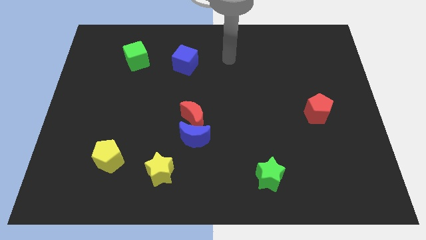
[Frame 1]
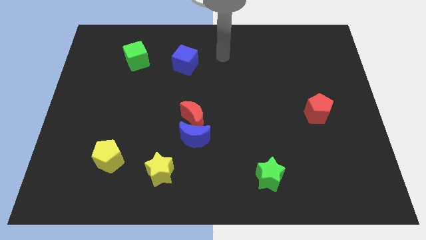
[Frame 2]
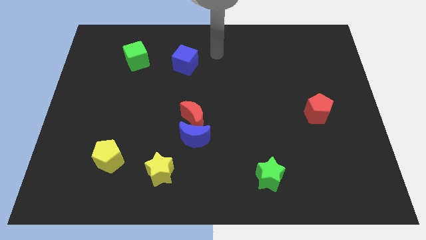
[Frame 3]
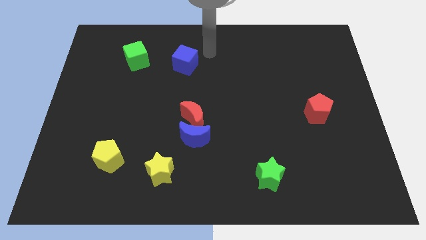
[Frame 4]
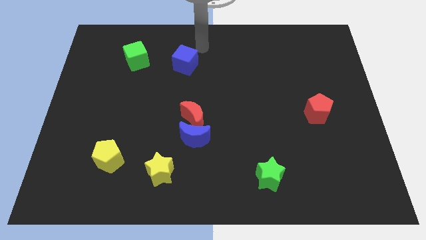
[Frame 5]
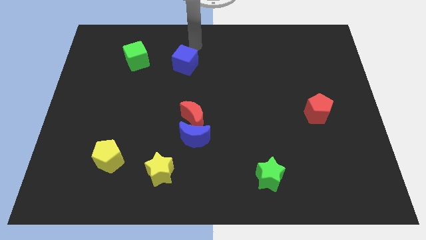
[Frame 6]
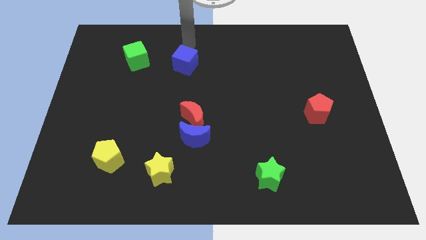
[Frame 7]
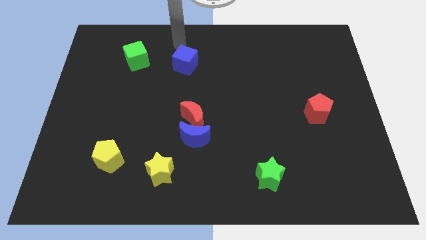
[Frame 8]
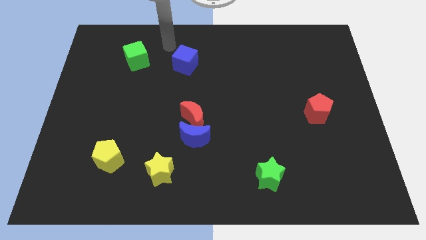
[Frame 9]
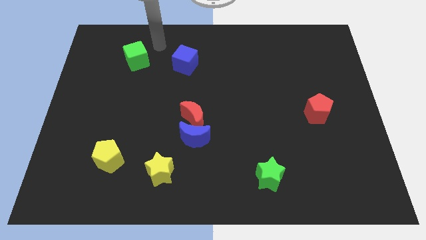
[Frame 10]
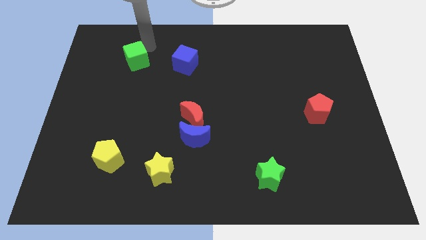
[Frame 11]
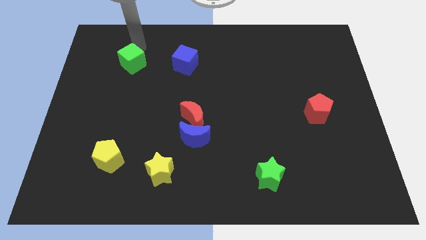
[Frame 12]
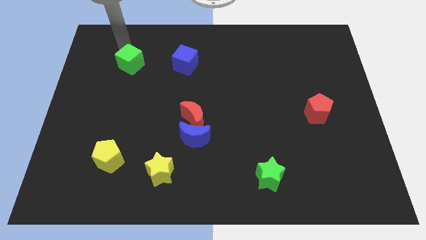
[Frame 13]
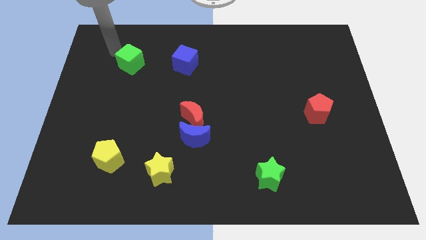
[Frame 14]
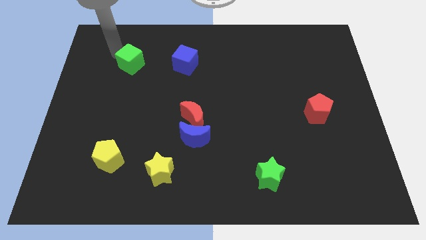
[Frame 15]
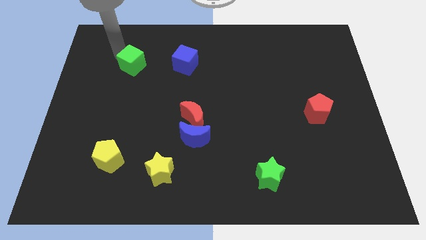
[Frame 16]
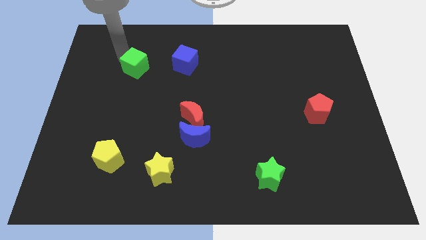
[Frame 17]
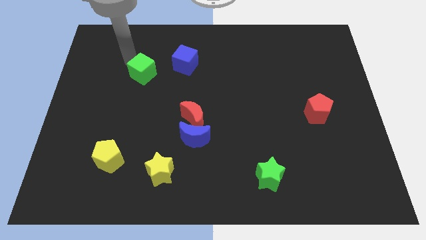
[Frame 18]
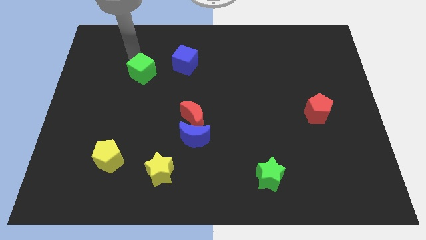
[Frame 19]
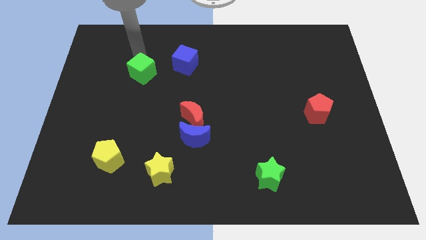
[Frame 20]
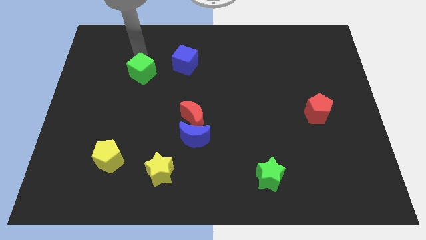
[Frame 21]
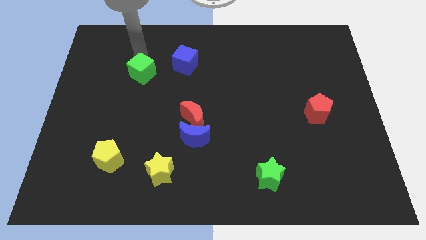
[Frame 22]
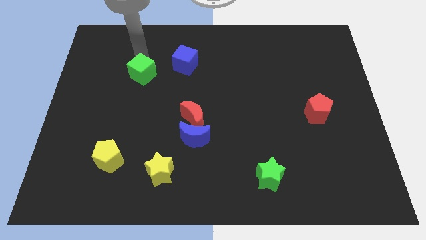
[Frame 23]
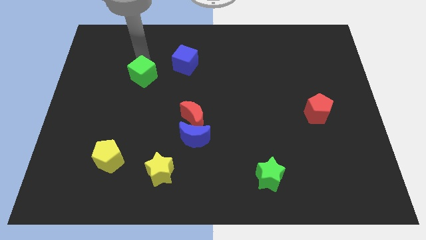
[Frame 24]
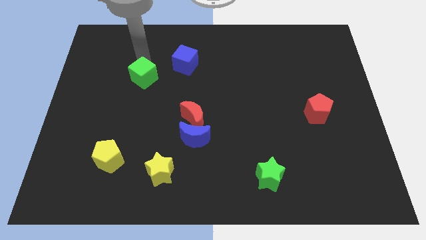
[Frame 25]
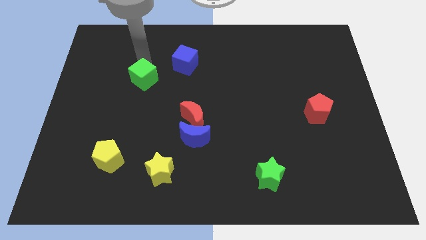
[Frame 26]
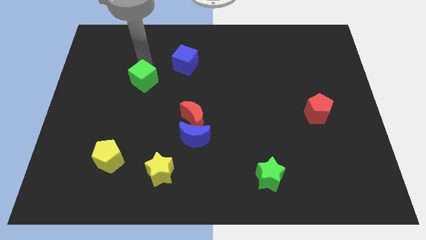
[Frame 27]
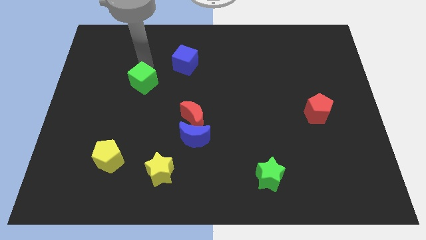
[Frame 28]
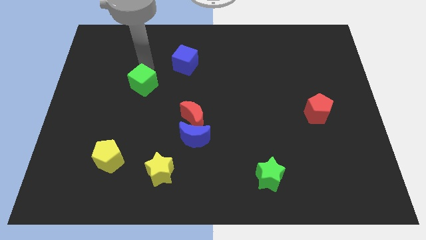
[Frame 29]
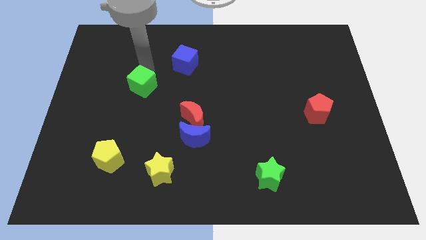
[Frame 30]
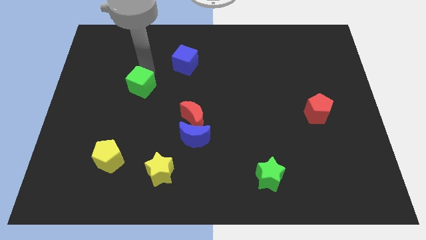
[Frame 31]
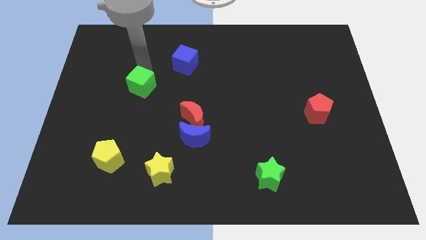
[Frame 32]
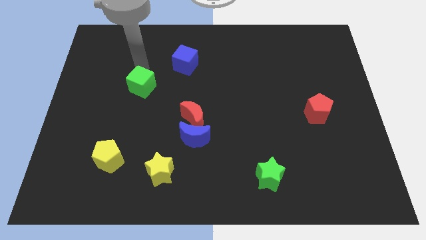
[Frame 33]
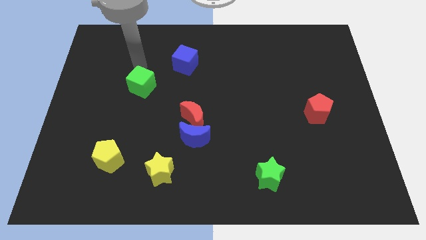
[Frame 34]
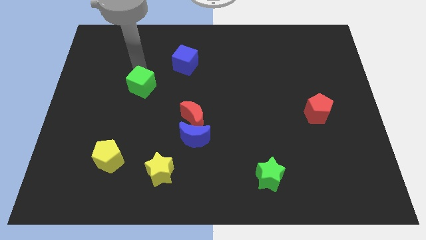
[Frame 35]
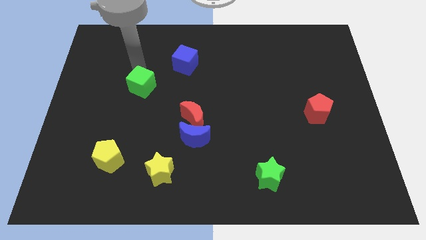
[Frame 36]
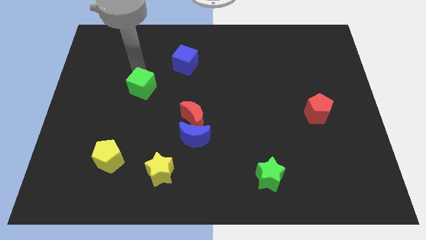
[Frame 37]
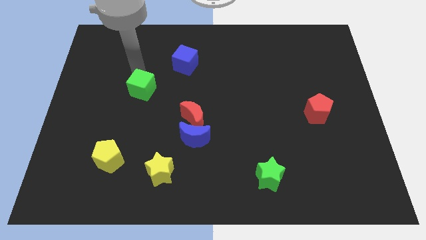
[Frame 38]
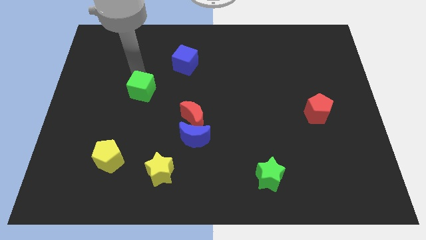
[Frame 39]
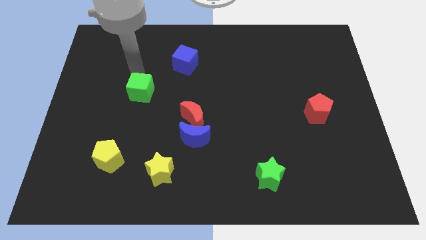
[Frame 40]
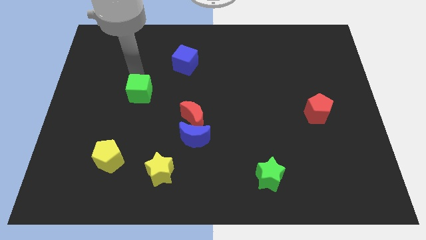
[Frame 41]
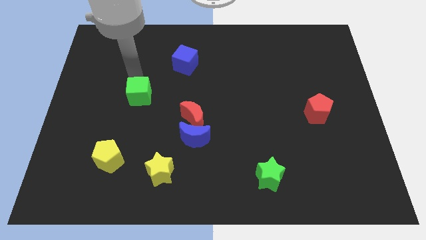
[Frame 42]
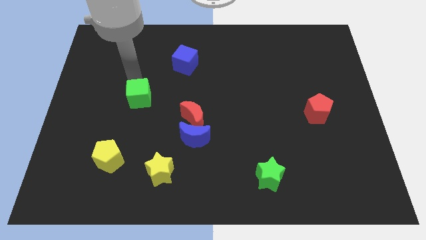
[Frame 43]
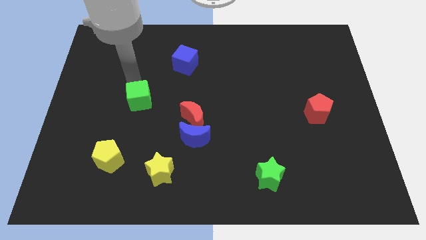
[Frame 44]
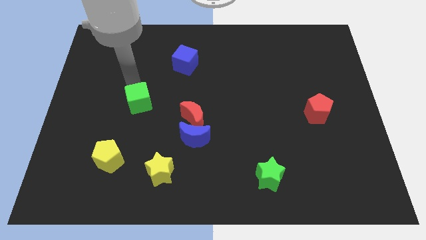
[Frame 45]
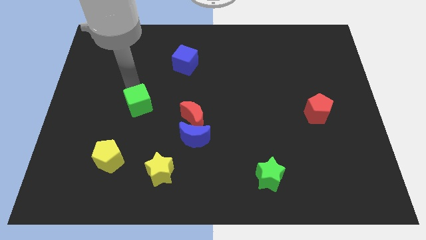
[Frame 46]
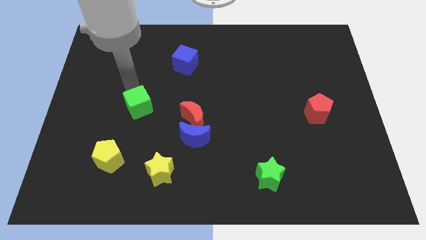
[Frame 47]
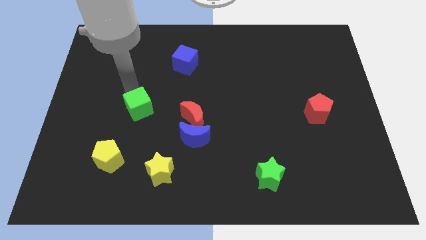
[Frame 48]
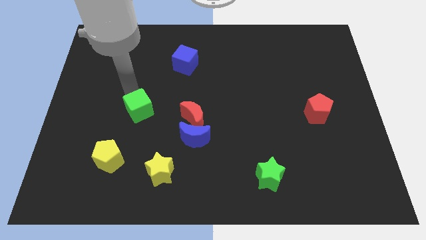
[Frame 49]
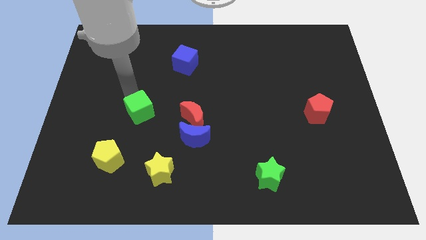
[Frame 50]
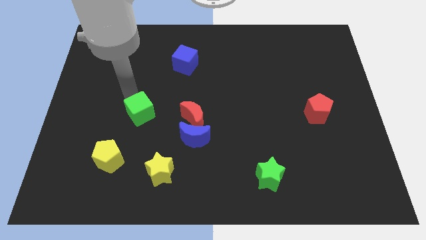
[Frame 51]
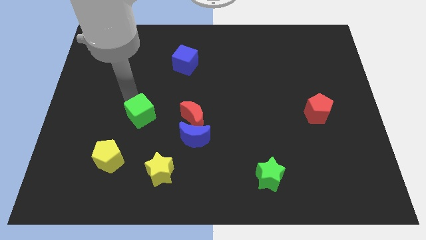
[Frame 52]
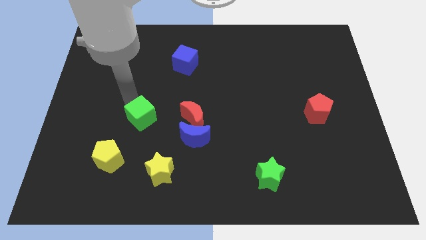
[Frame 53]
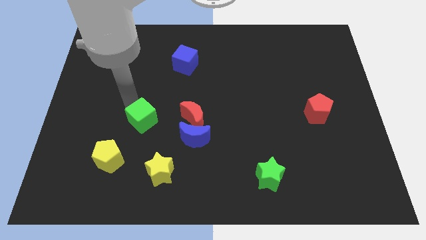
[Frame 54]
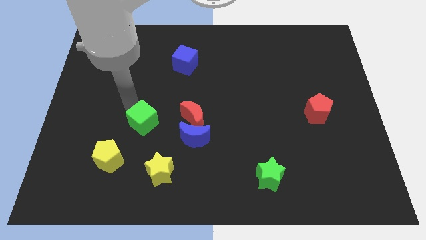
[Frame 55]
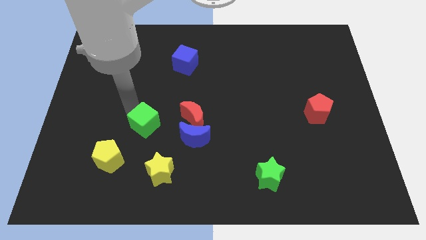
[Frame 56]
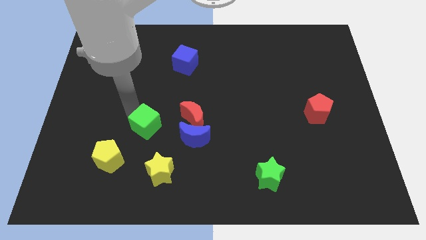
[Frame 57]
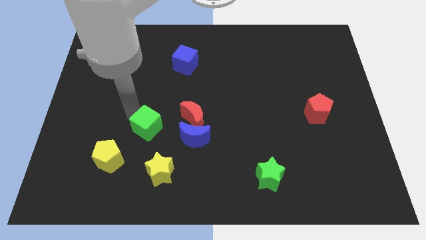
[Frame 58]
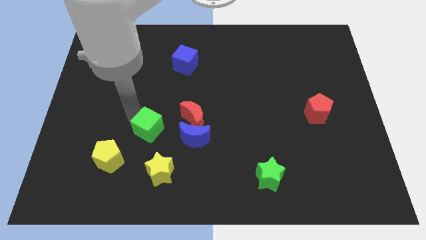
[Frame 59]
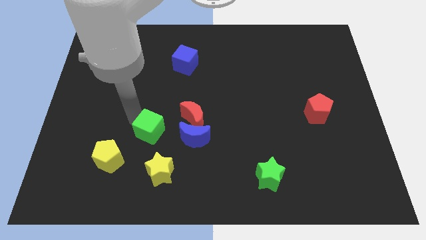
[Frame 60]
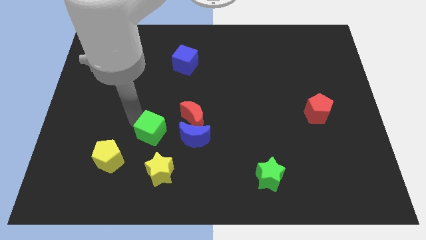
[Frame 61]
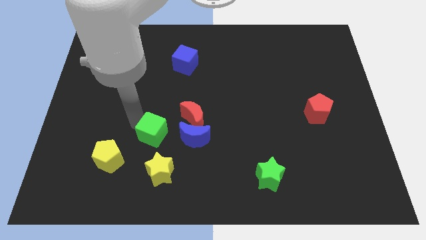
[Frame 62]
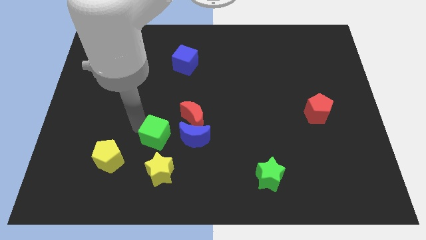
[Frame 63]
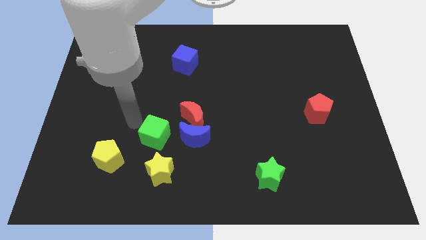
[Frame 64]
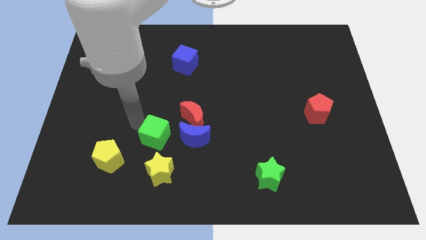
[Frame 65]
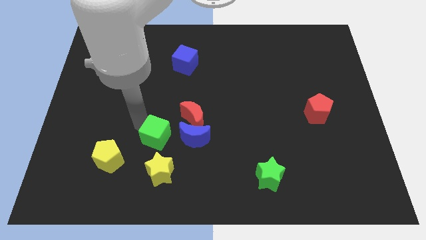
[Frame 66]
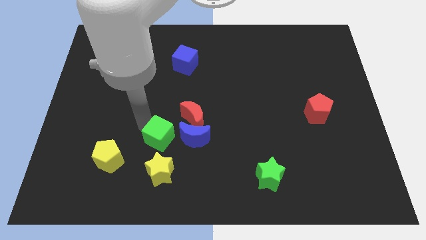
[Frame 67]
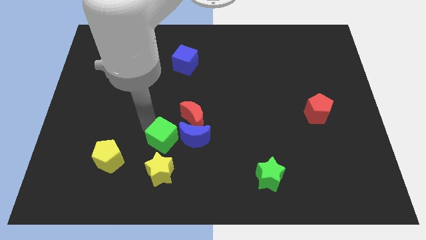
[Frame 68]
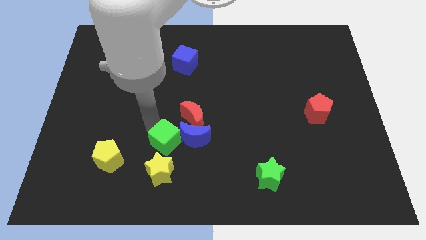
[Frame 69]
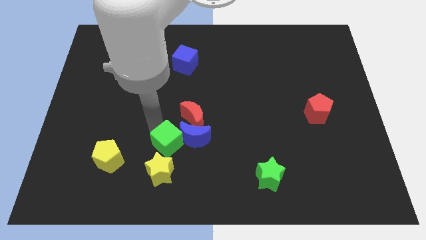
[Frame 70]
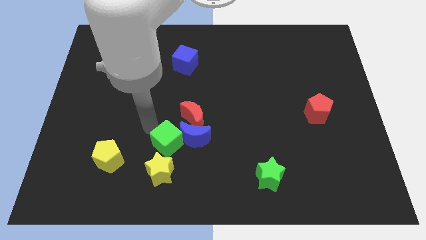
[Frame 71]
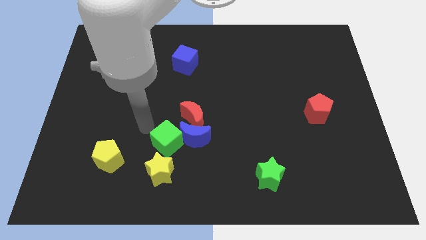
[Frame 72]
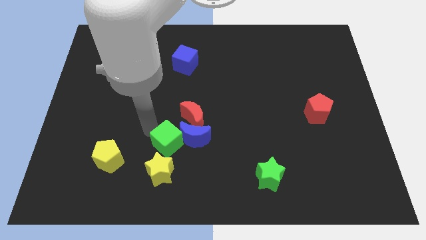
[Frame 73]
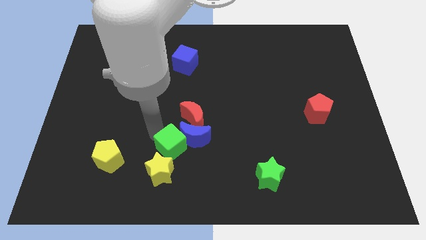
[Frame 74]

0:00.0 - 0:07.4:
put the green cube to the bottom of the red moon

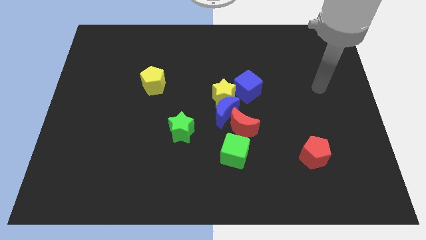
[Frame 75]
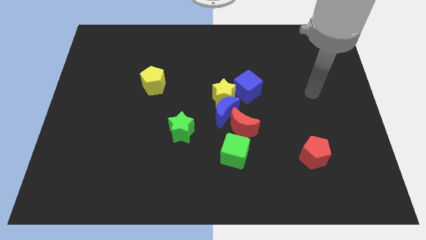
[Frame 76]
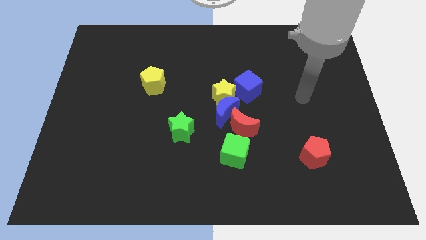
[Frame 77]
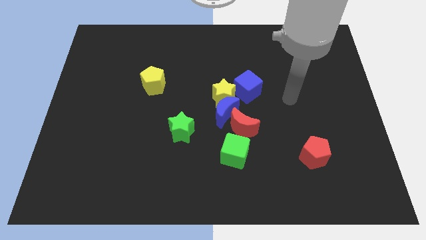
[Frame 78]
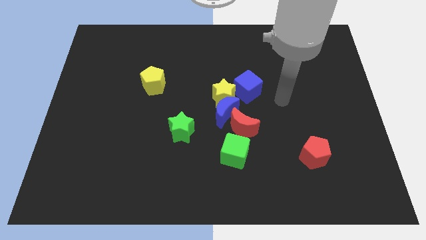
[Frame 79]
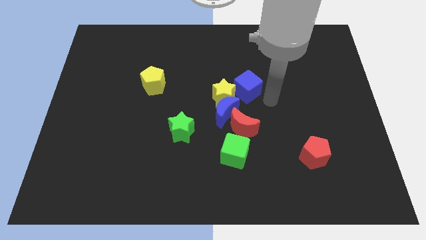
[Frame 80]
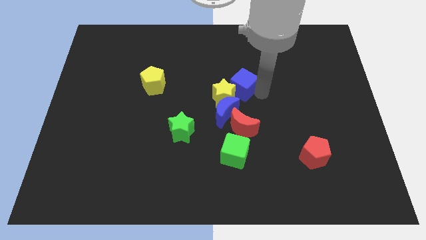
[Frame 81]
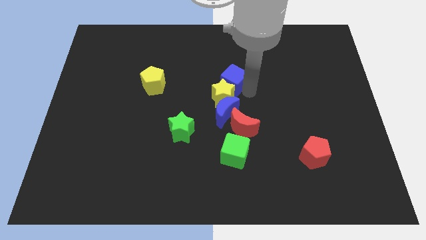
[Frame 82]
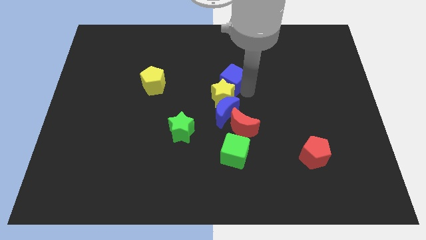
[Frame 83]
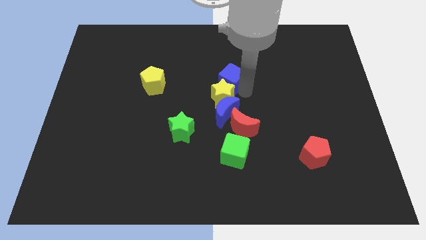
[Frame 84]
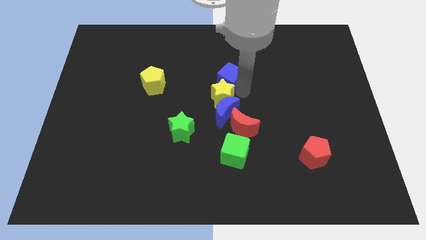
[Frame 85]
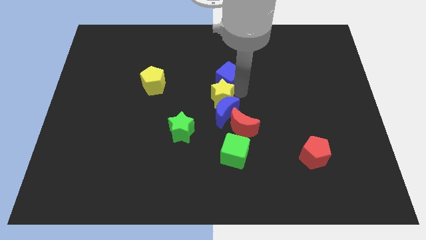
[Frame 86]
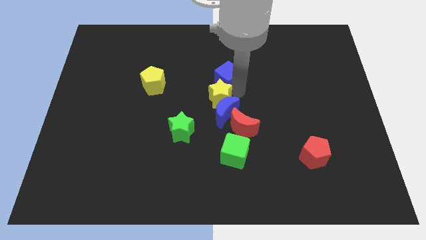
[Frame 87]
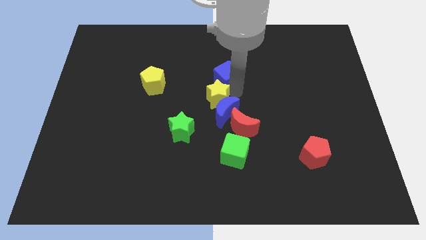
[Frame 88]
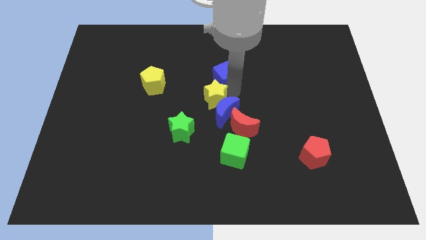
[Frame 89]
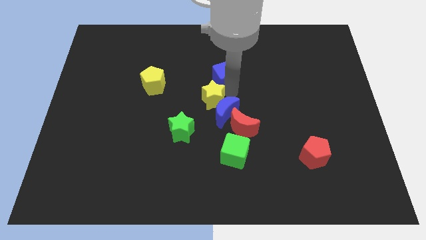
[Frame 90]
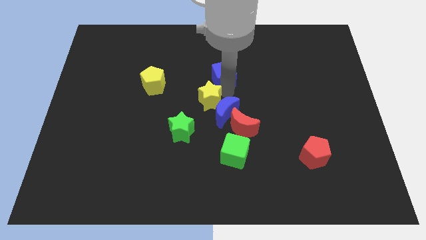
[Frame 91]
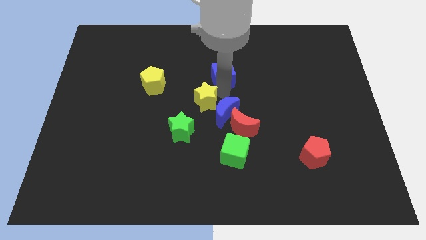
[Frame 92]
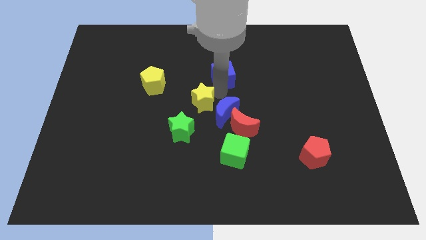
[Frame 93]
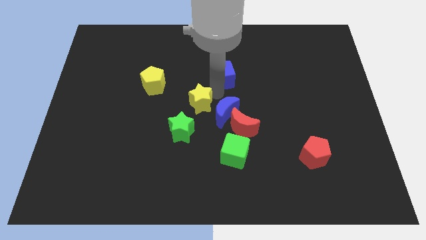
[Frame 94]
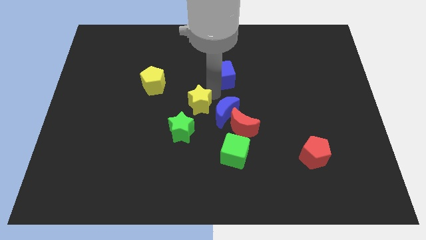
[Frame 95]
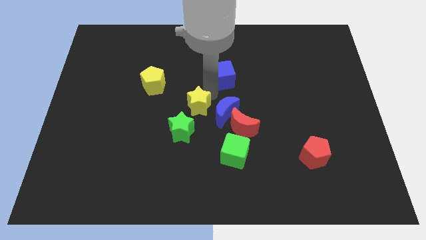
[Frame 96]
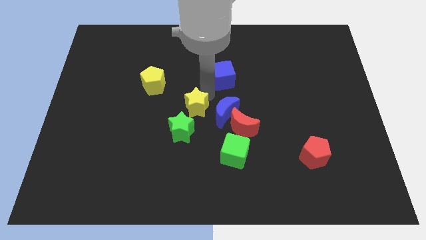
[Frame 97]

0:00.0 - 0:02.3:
push the yellow star to the bottom right of the yellow pentagon
